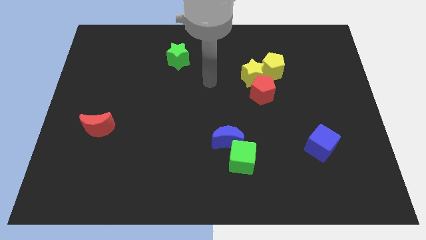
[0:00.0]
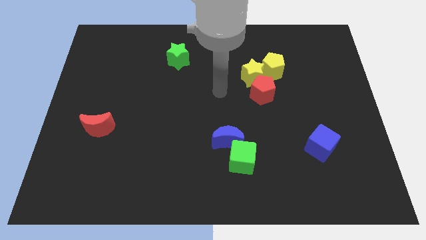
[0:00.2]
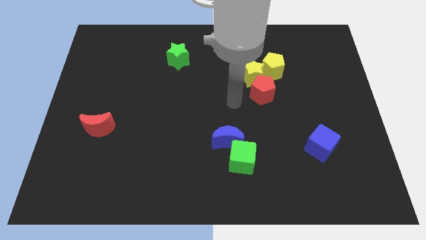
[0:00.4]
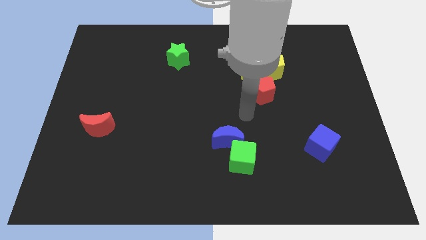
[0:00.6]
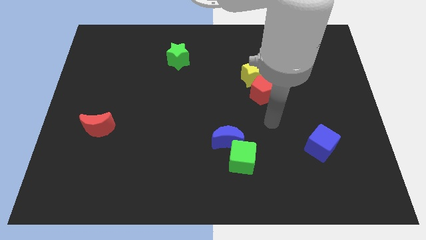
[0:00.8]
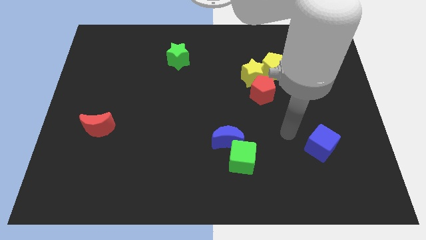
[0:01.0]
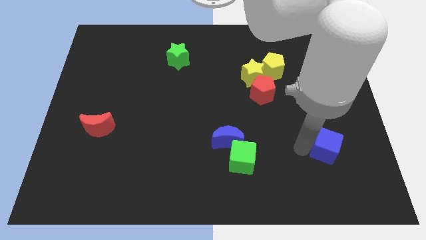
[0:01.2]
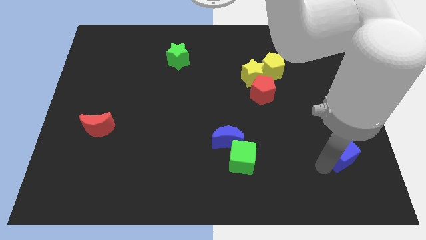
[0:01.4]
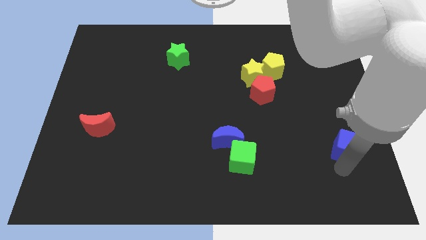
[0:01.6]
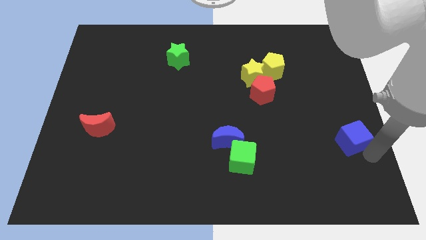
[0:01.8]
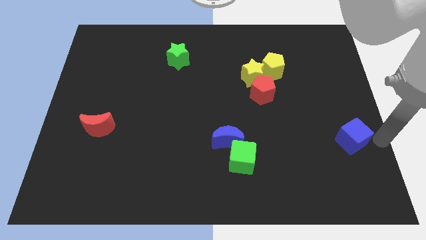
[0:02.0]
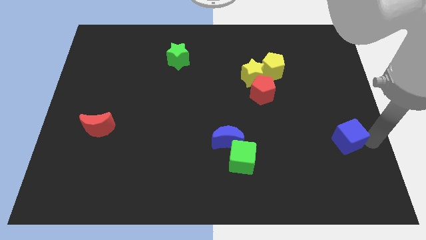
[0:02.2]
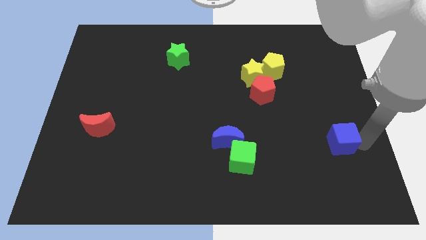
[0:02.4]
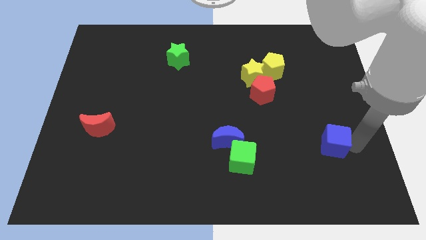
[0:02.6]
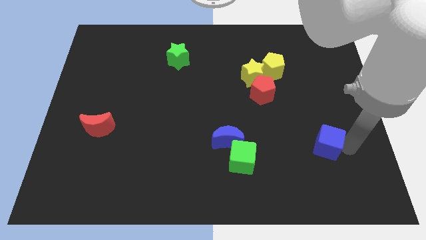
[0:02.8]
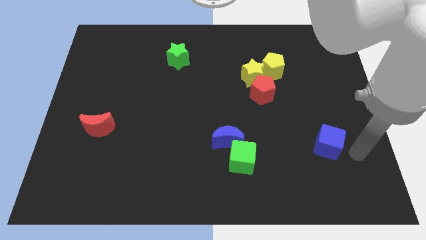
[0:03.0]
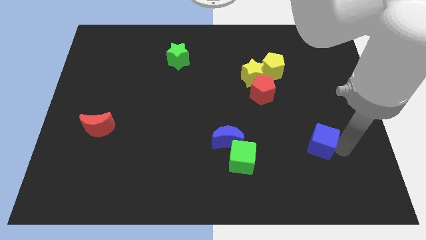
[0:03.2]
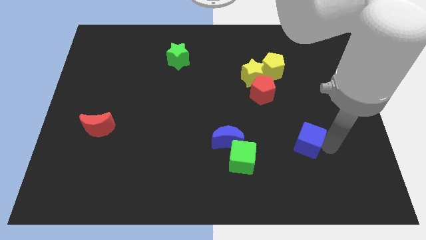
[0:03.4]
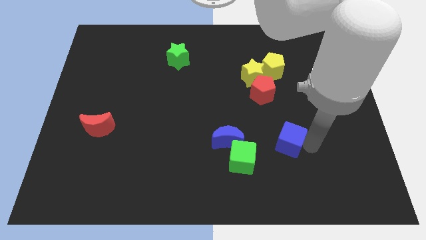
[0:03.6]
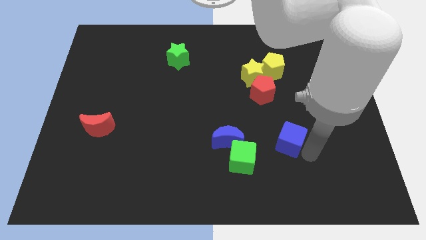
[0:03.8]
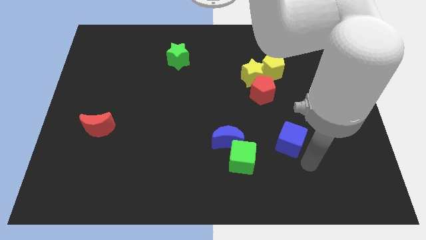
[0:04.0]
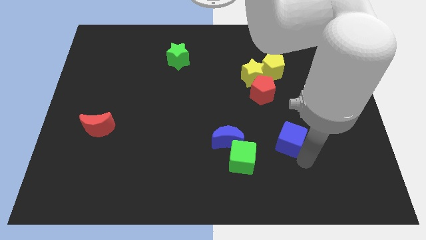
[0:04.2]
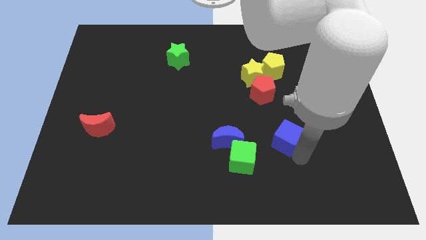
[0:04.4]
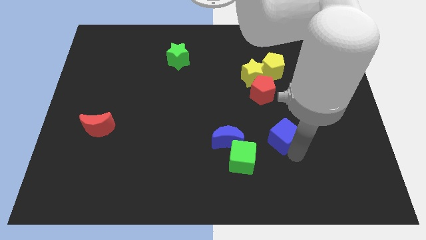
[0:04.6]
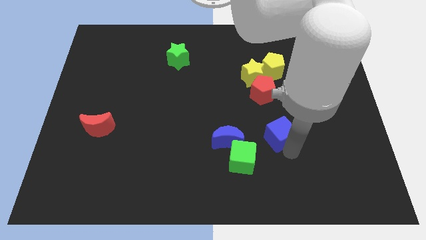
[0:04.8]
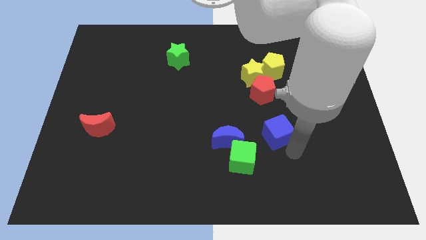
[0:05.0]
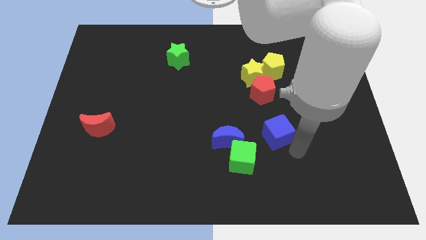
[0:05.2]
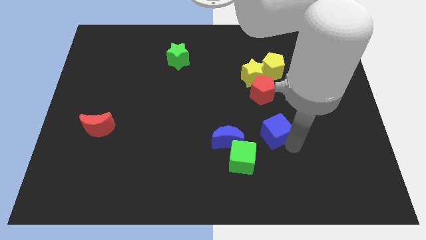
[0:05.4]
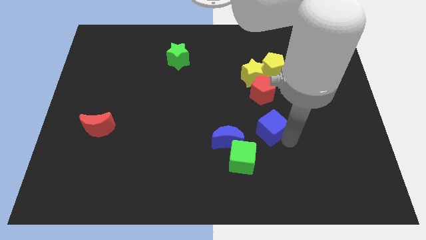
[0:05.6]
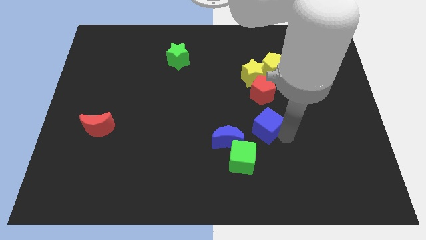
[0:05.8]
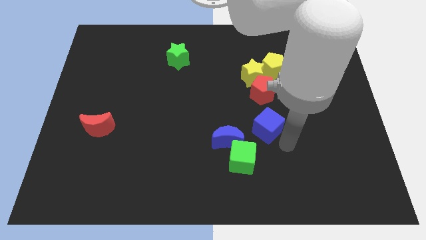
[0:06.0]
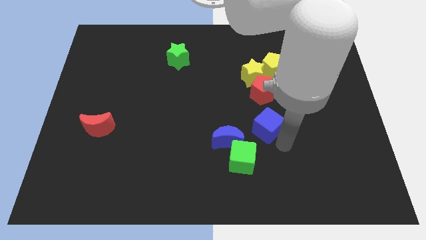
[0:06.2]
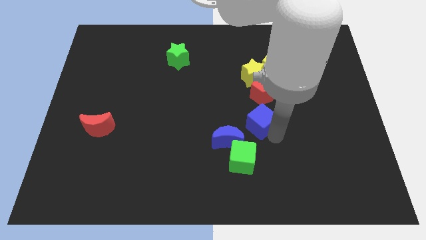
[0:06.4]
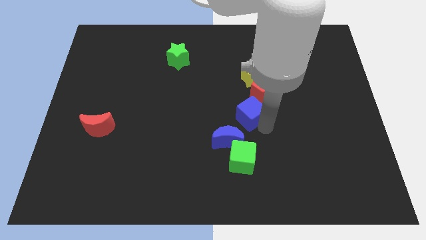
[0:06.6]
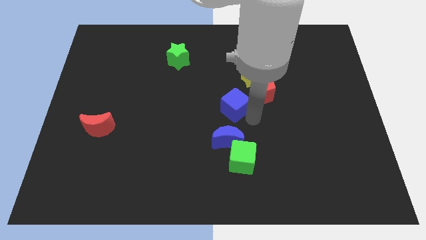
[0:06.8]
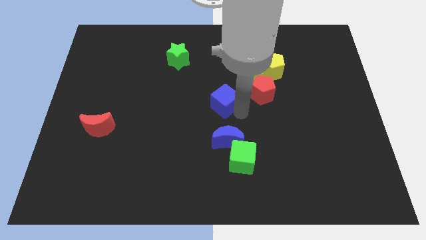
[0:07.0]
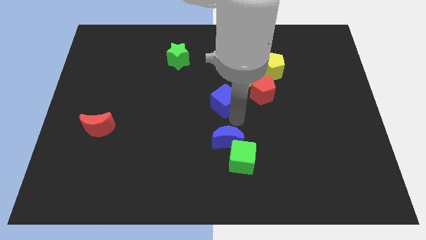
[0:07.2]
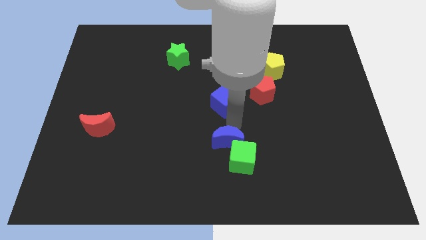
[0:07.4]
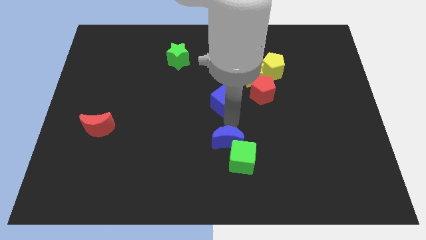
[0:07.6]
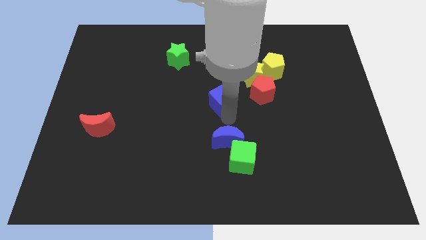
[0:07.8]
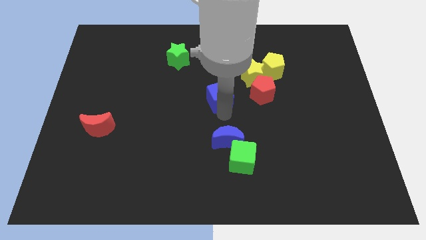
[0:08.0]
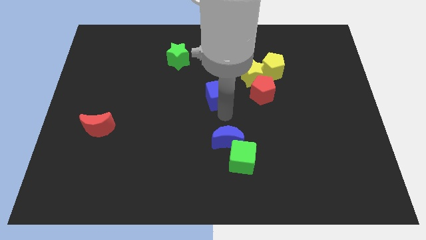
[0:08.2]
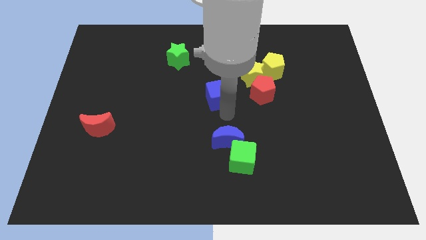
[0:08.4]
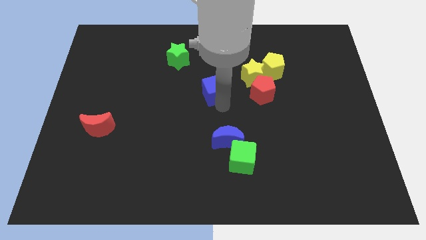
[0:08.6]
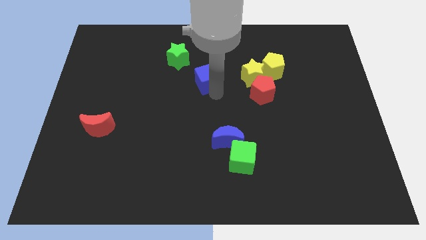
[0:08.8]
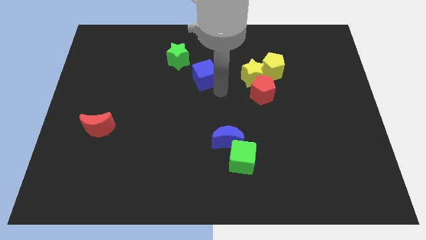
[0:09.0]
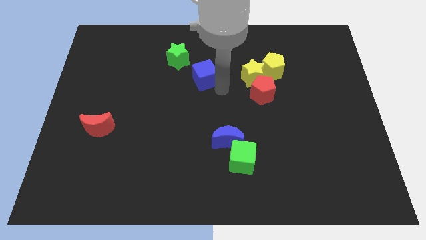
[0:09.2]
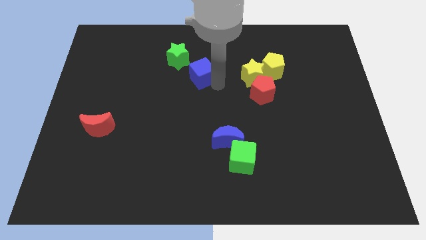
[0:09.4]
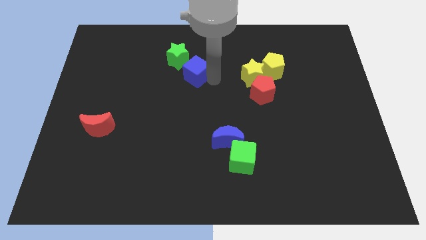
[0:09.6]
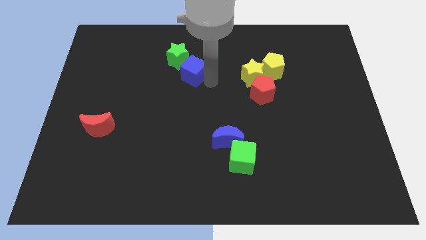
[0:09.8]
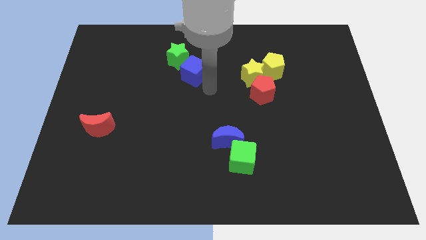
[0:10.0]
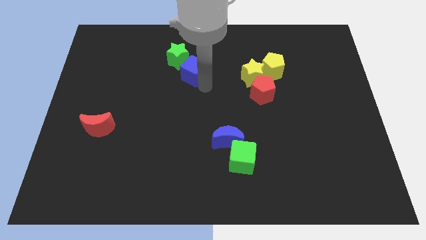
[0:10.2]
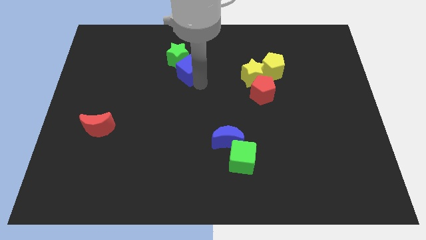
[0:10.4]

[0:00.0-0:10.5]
slide the blue cube towards the green star

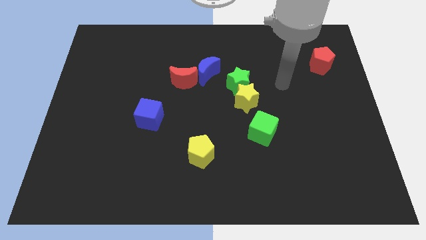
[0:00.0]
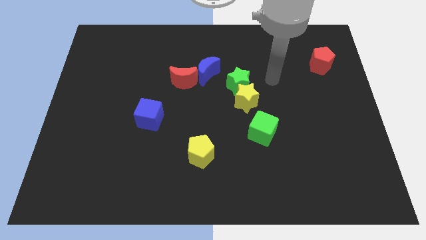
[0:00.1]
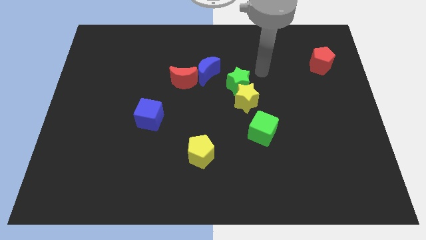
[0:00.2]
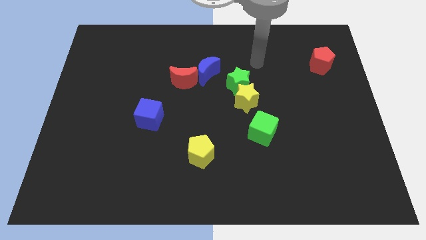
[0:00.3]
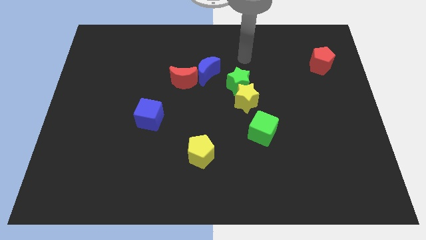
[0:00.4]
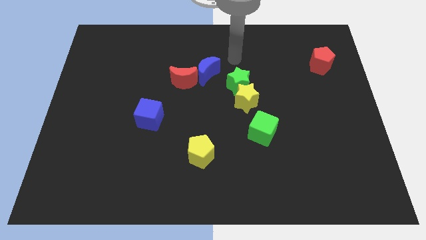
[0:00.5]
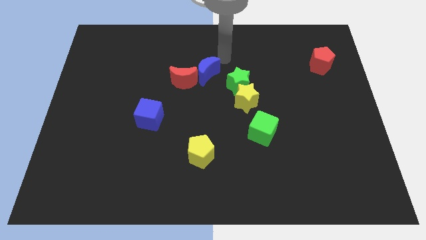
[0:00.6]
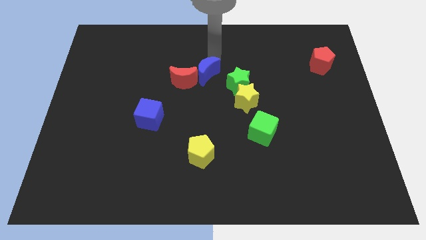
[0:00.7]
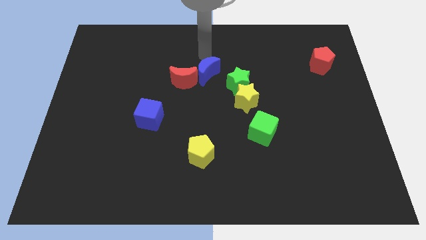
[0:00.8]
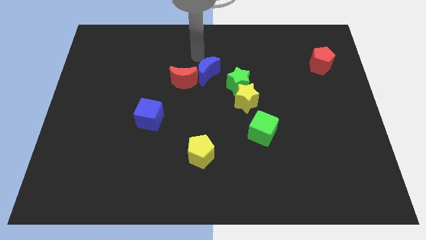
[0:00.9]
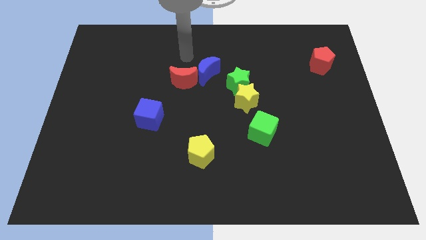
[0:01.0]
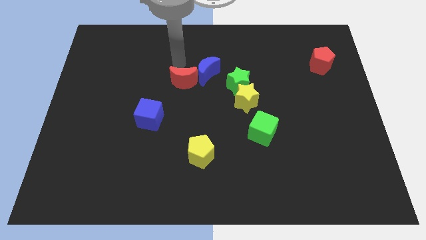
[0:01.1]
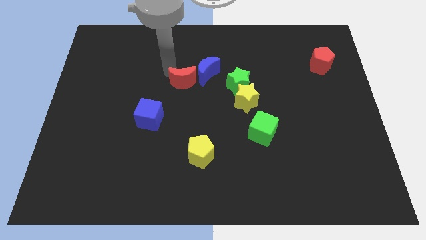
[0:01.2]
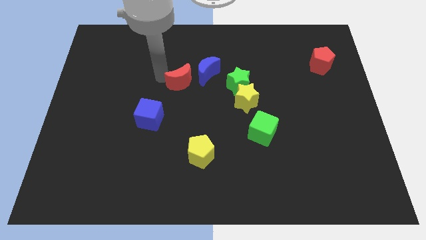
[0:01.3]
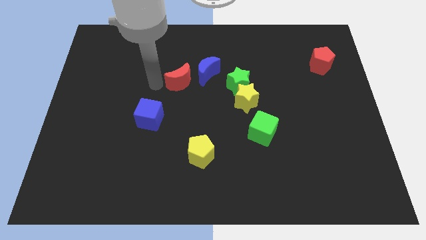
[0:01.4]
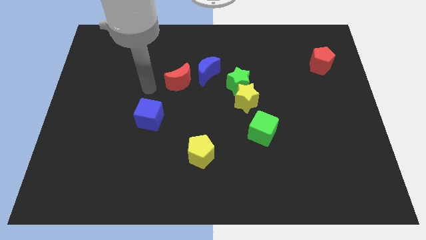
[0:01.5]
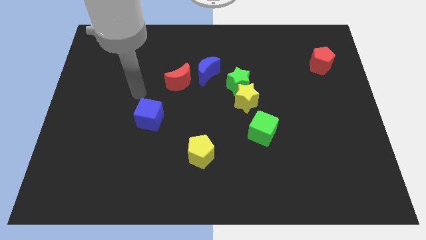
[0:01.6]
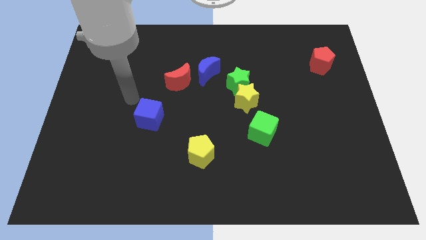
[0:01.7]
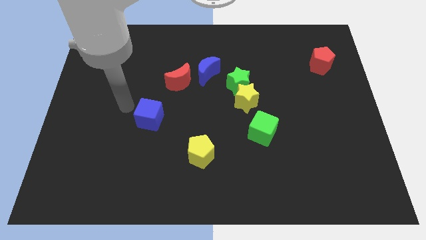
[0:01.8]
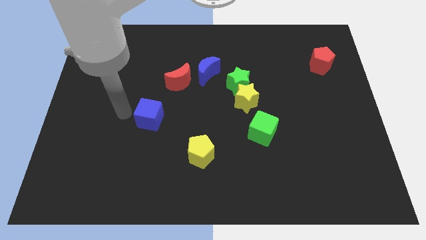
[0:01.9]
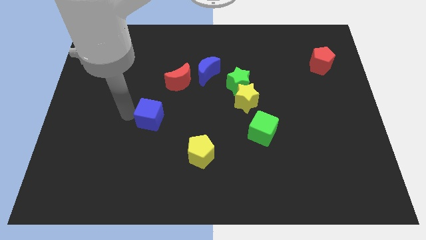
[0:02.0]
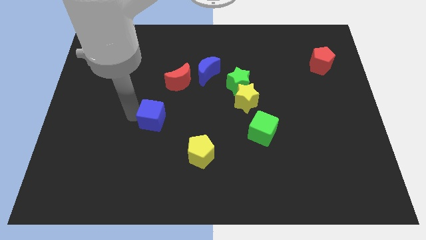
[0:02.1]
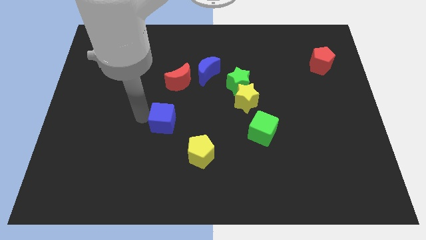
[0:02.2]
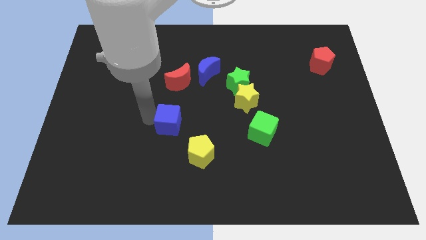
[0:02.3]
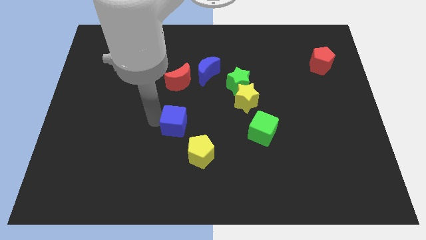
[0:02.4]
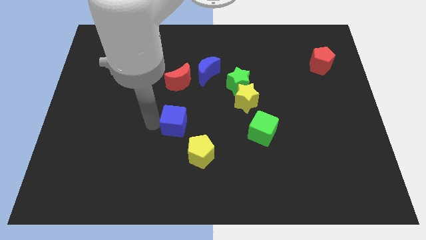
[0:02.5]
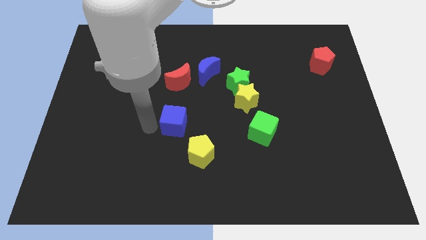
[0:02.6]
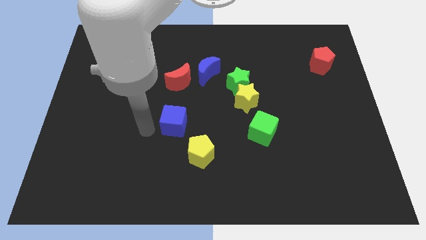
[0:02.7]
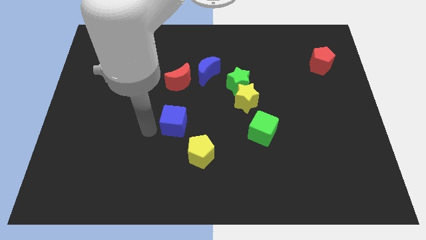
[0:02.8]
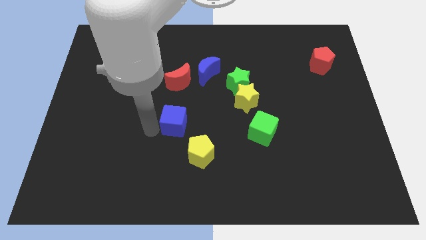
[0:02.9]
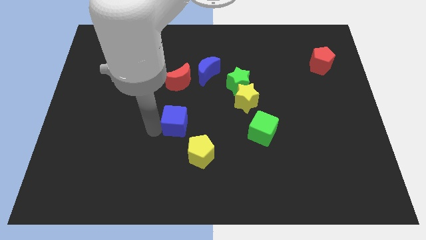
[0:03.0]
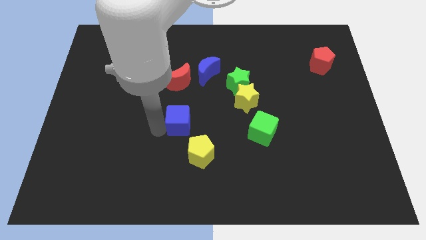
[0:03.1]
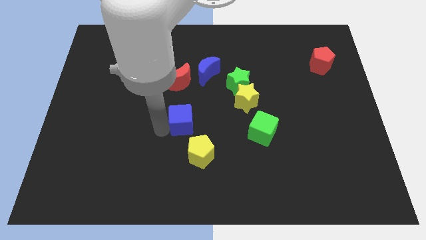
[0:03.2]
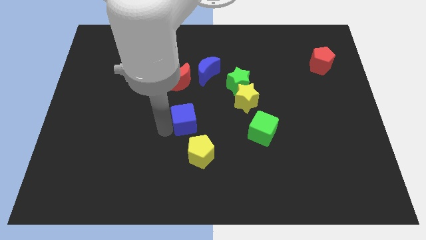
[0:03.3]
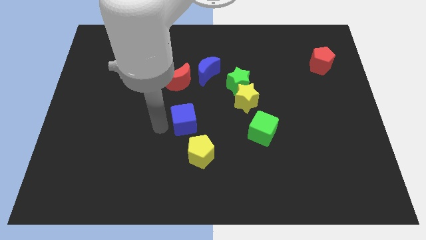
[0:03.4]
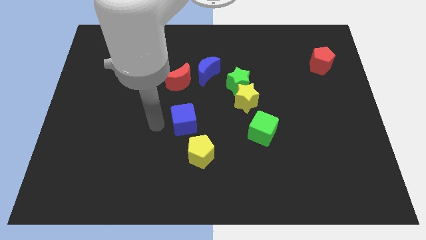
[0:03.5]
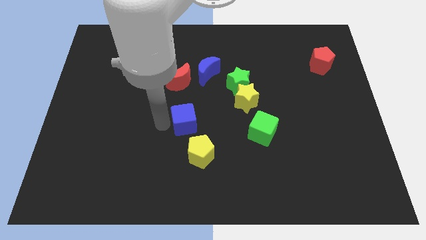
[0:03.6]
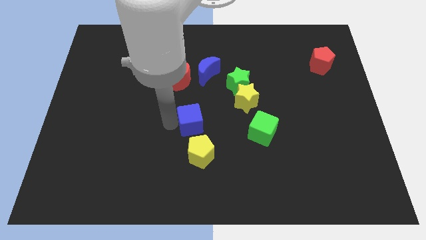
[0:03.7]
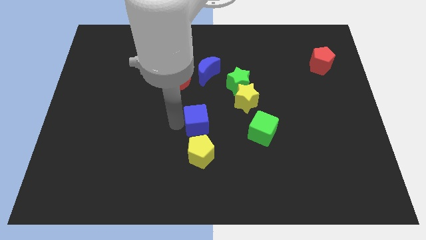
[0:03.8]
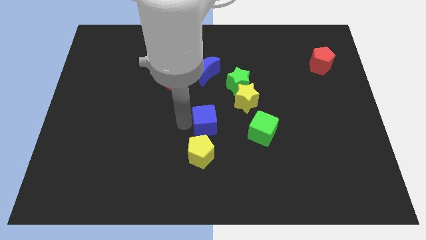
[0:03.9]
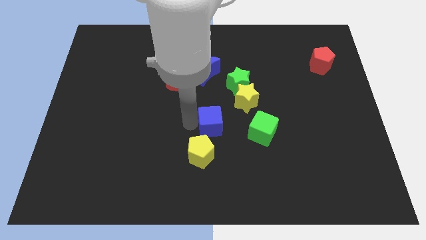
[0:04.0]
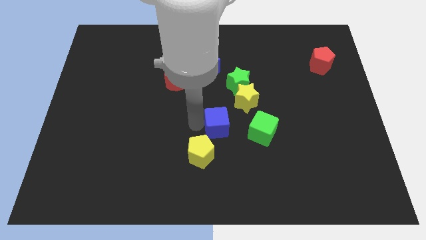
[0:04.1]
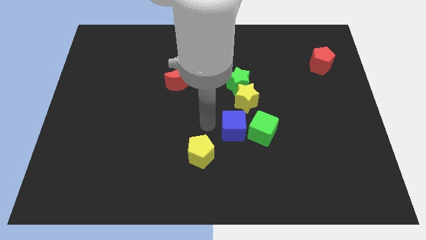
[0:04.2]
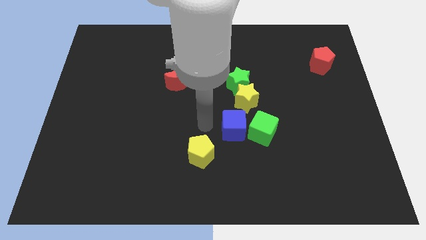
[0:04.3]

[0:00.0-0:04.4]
move the blue cube close to the green cube
